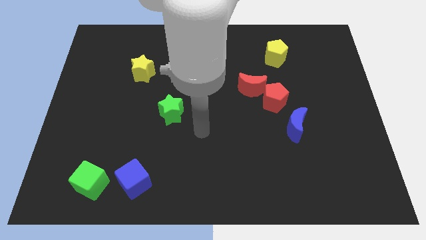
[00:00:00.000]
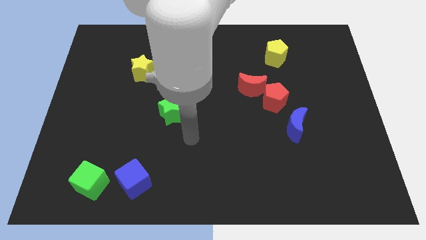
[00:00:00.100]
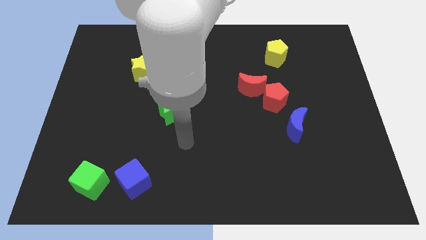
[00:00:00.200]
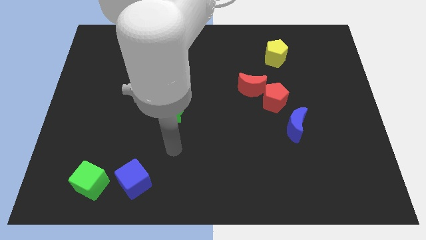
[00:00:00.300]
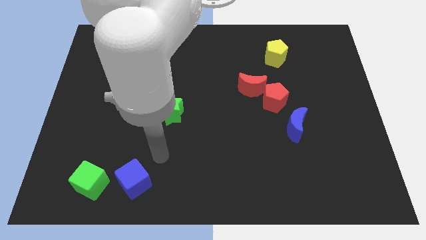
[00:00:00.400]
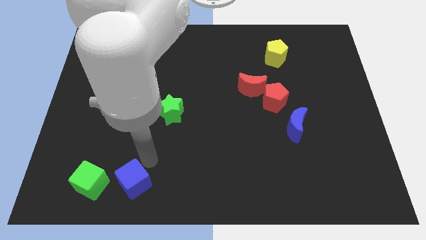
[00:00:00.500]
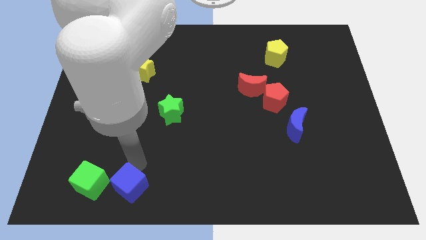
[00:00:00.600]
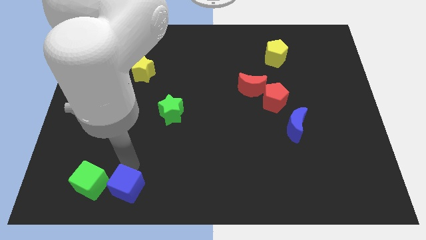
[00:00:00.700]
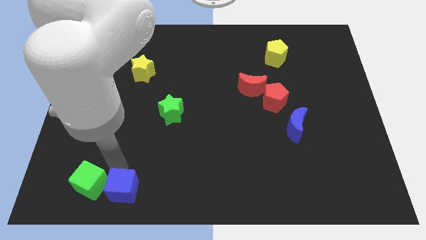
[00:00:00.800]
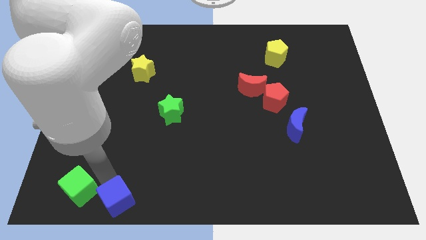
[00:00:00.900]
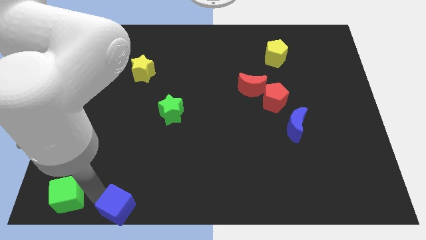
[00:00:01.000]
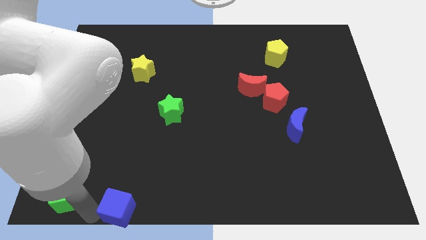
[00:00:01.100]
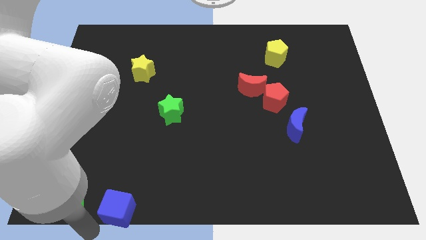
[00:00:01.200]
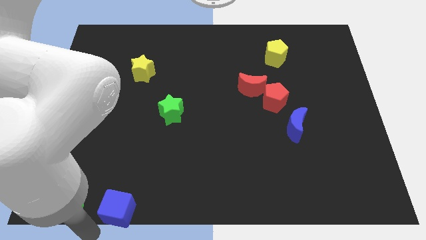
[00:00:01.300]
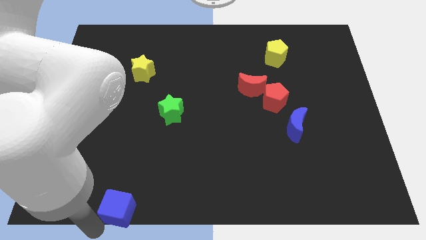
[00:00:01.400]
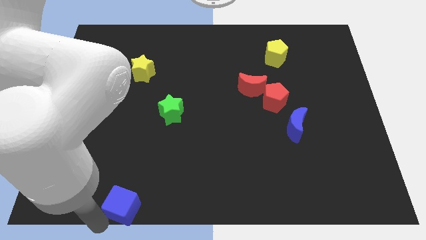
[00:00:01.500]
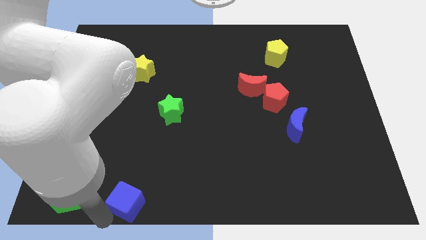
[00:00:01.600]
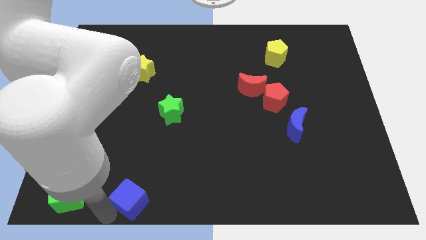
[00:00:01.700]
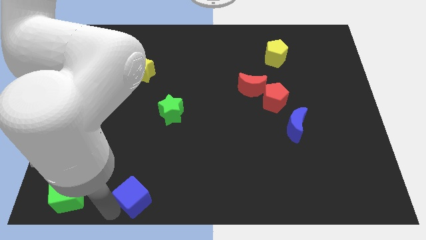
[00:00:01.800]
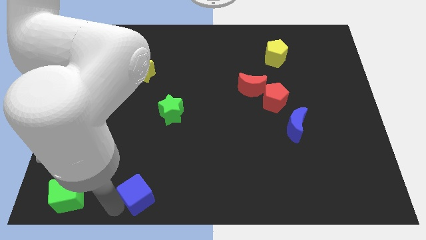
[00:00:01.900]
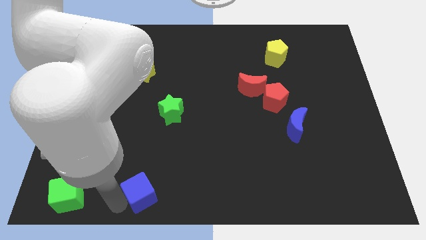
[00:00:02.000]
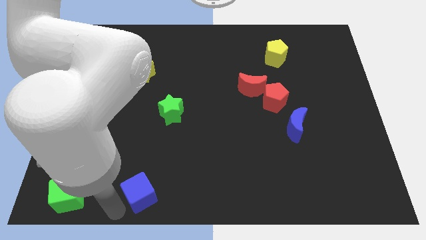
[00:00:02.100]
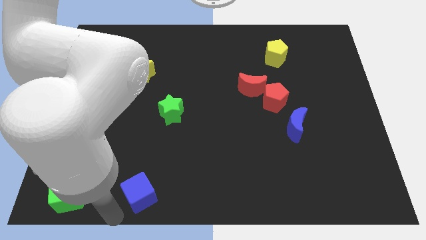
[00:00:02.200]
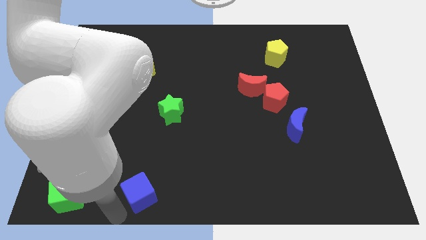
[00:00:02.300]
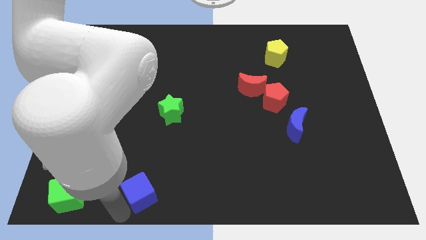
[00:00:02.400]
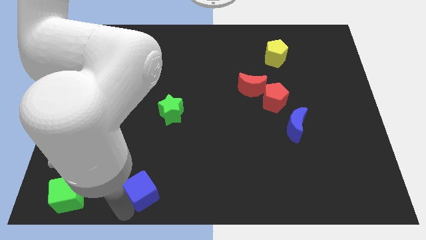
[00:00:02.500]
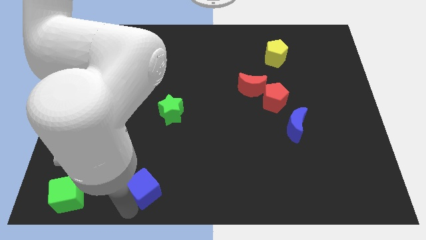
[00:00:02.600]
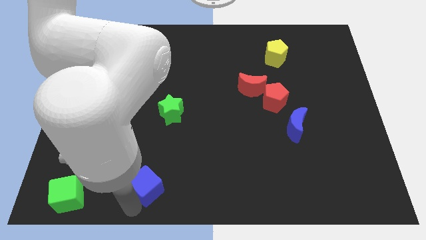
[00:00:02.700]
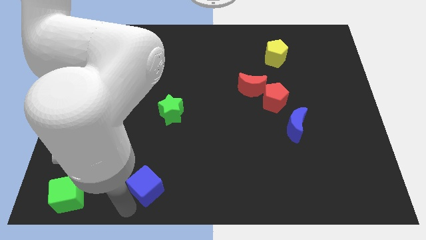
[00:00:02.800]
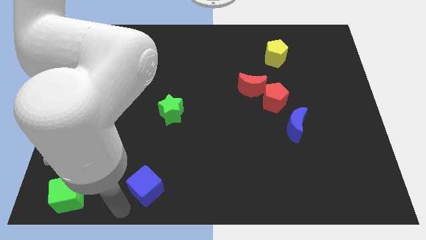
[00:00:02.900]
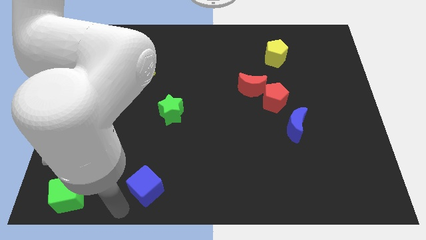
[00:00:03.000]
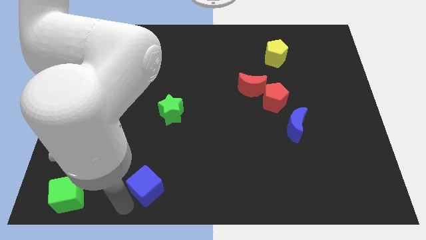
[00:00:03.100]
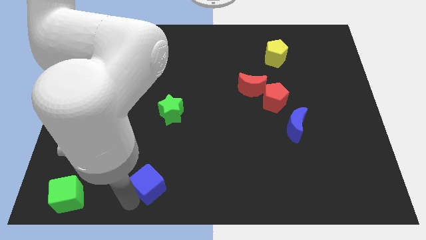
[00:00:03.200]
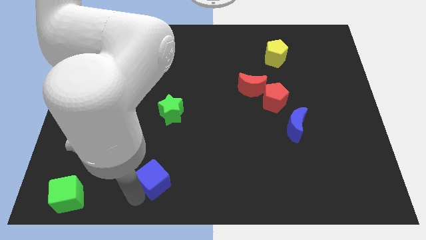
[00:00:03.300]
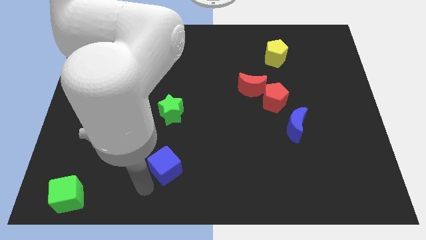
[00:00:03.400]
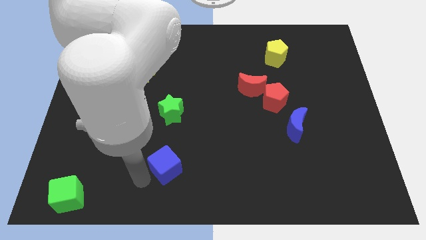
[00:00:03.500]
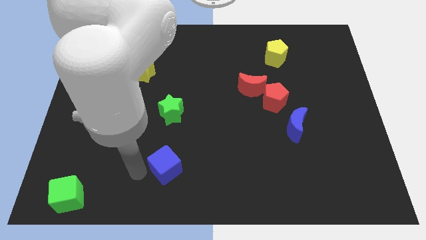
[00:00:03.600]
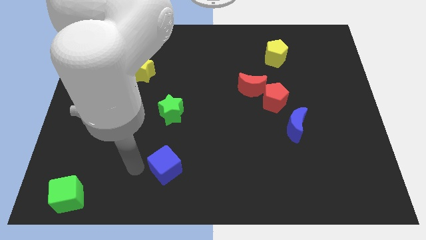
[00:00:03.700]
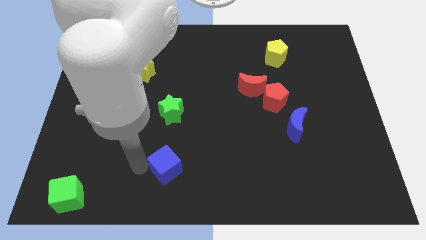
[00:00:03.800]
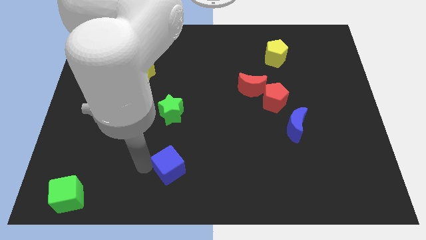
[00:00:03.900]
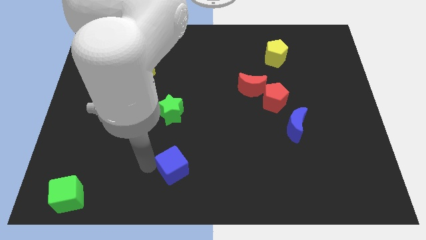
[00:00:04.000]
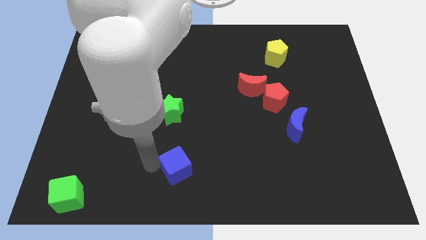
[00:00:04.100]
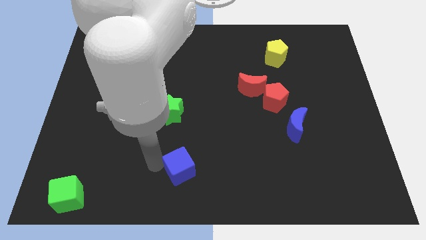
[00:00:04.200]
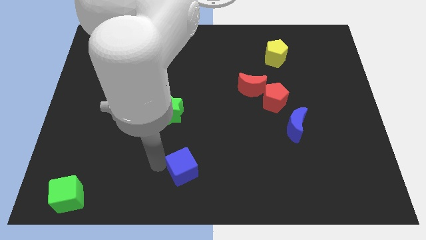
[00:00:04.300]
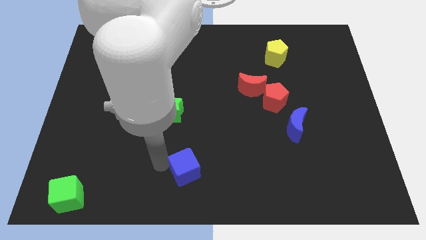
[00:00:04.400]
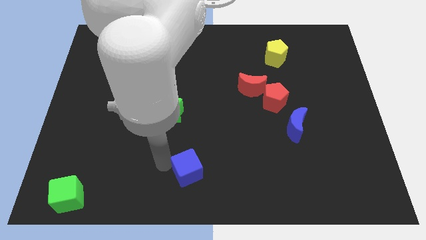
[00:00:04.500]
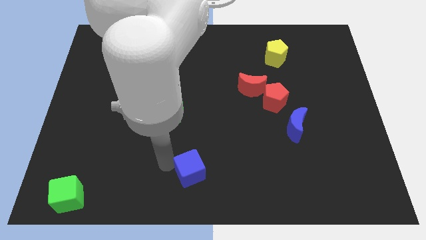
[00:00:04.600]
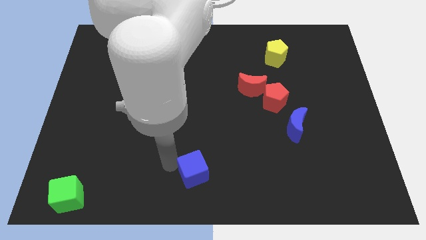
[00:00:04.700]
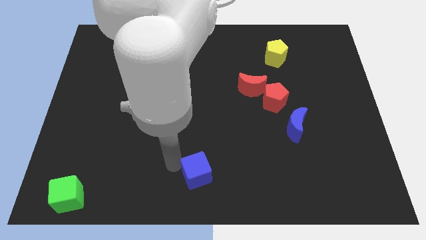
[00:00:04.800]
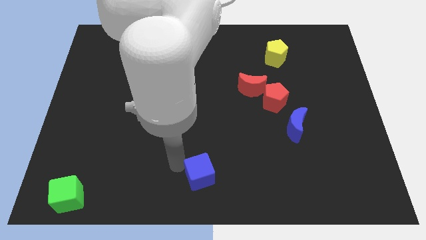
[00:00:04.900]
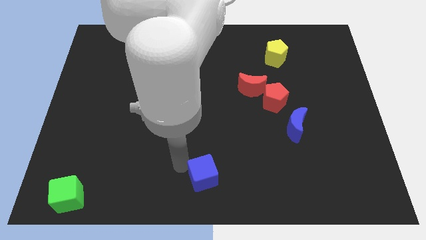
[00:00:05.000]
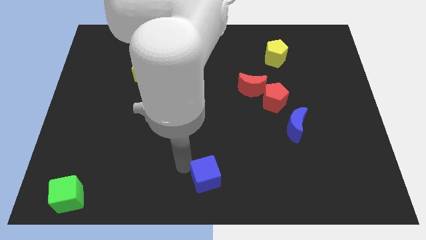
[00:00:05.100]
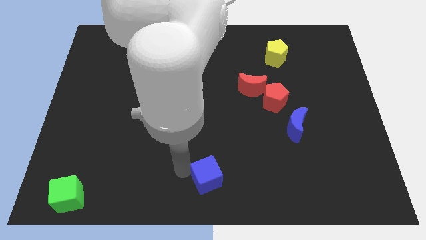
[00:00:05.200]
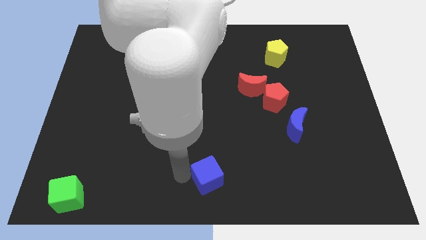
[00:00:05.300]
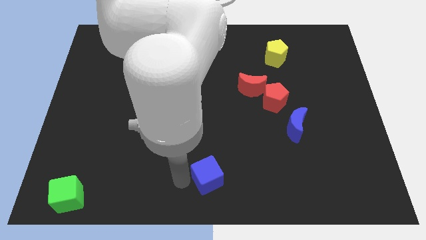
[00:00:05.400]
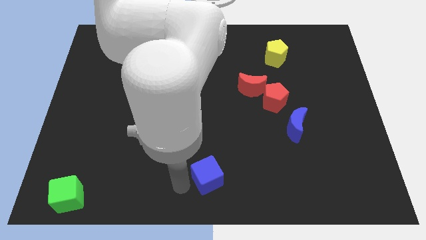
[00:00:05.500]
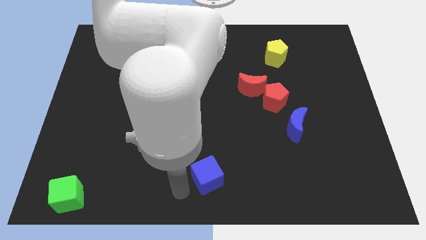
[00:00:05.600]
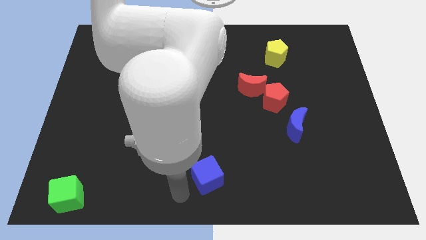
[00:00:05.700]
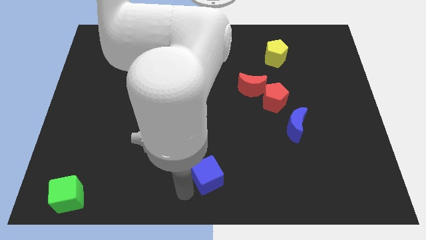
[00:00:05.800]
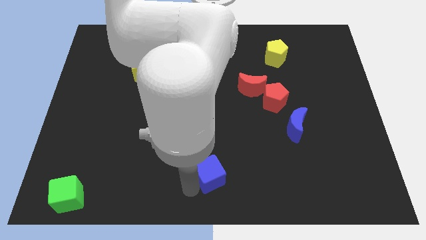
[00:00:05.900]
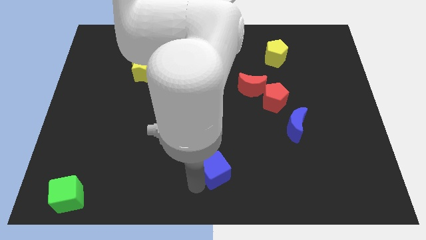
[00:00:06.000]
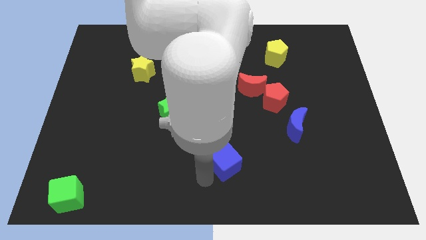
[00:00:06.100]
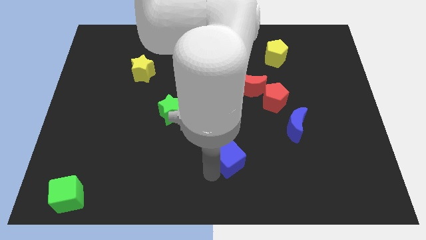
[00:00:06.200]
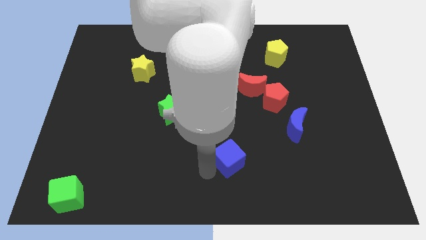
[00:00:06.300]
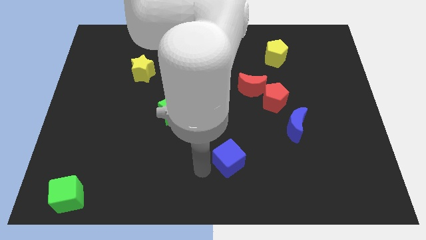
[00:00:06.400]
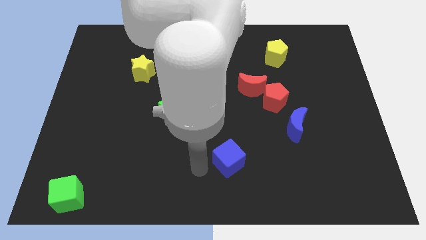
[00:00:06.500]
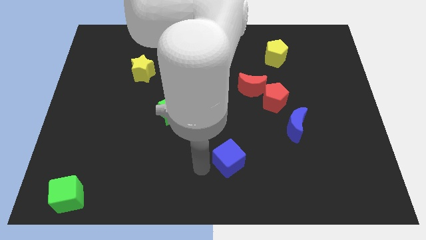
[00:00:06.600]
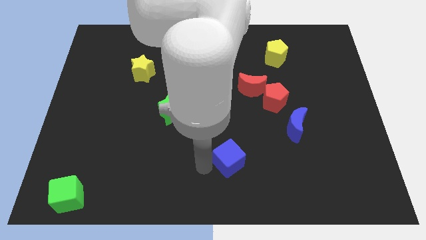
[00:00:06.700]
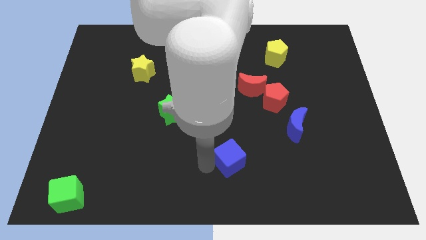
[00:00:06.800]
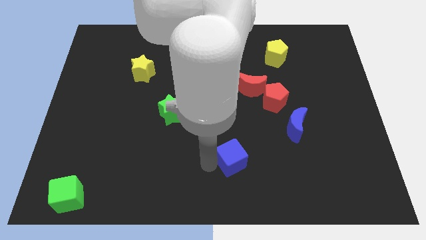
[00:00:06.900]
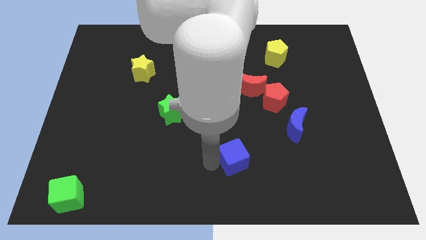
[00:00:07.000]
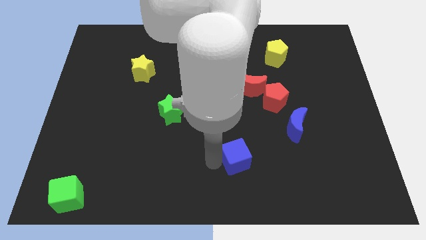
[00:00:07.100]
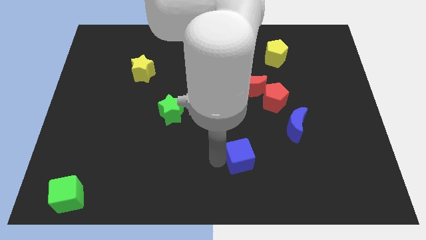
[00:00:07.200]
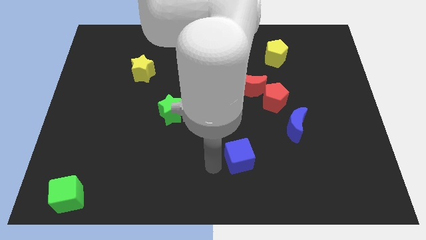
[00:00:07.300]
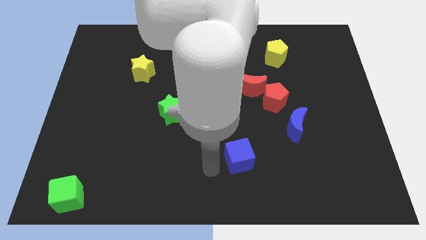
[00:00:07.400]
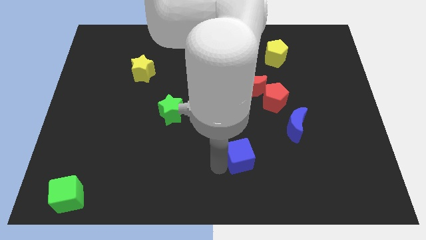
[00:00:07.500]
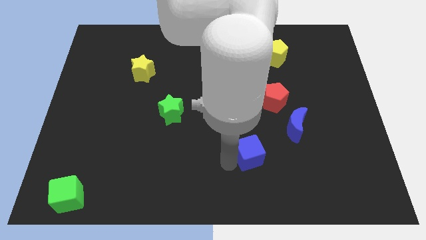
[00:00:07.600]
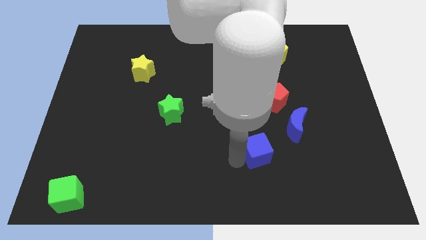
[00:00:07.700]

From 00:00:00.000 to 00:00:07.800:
push the blue cube diagonally down and to the left of the blue moon

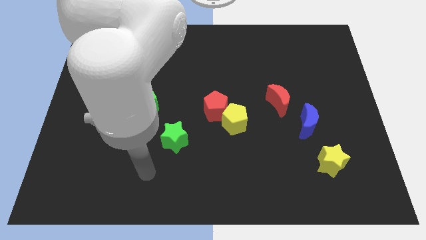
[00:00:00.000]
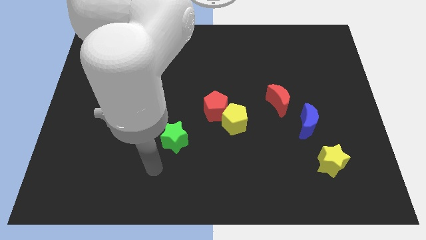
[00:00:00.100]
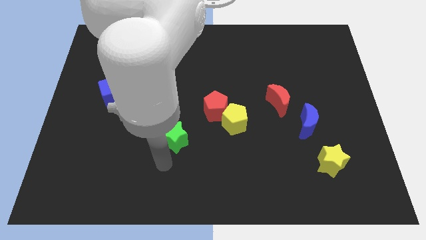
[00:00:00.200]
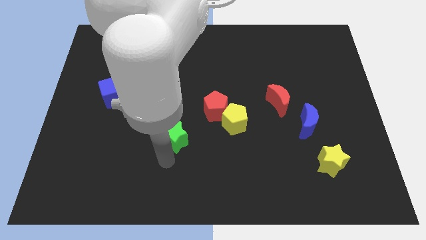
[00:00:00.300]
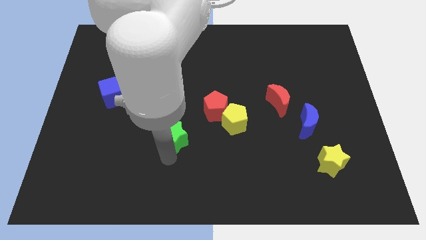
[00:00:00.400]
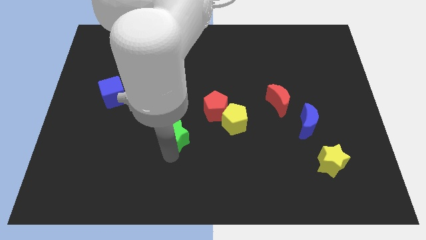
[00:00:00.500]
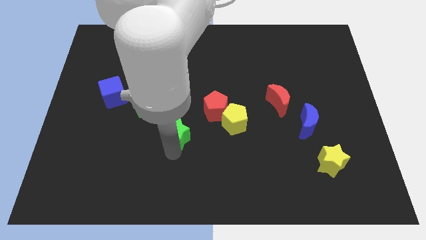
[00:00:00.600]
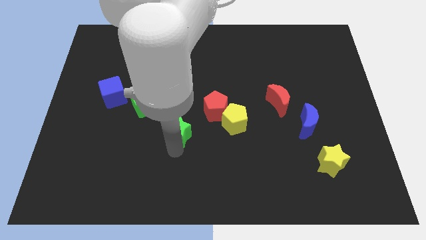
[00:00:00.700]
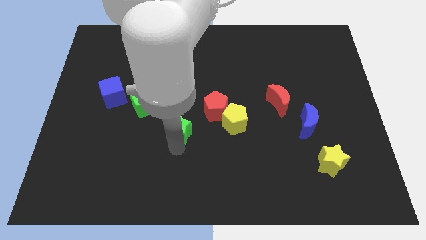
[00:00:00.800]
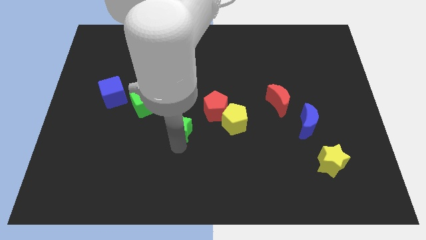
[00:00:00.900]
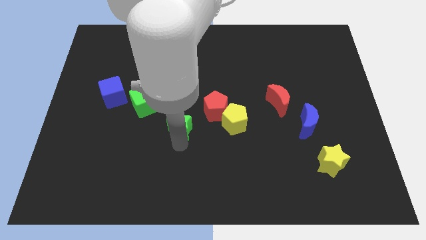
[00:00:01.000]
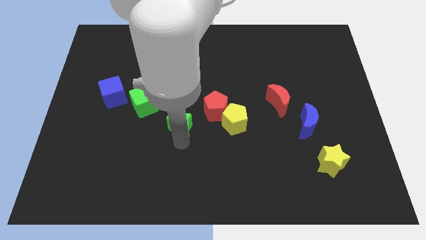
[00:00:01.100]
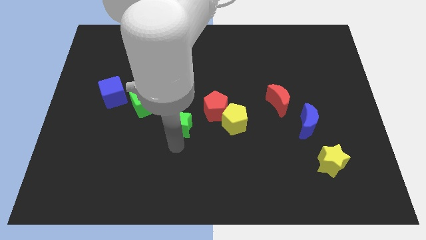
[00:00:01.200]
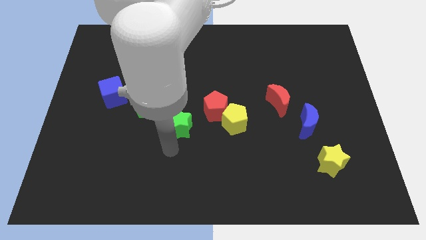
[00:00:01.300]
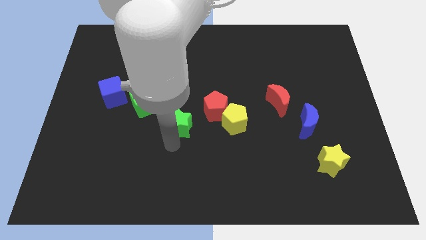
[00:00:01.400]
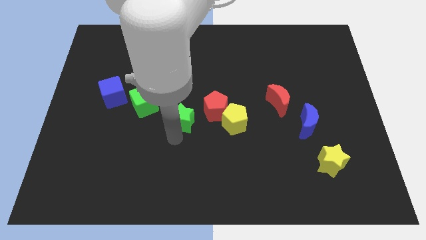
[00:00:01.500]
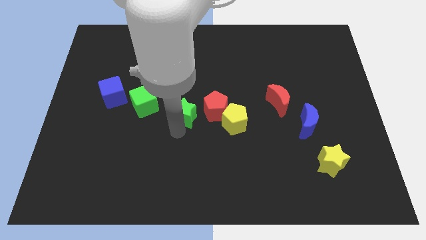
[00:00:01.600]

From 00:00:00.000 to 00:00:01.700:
slide the green star to the right side of the green cube
